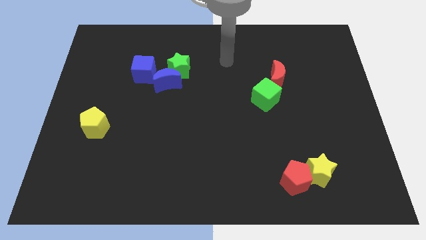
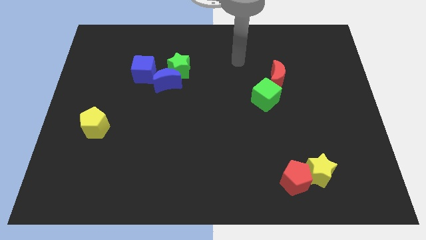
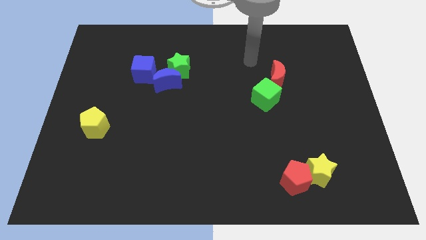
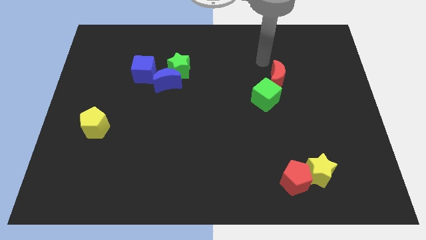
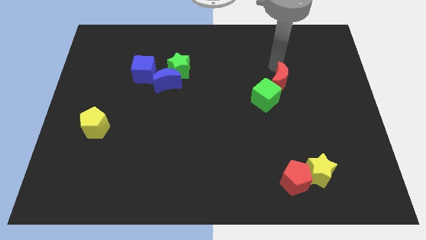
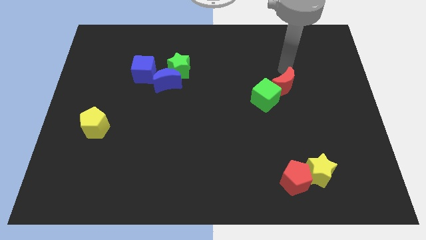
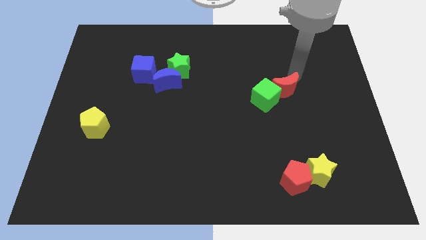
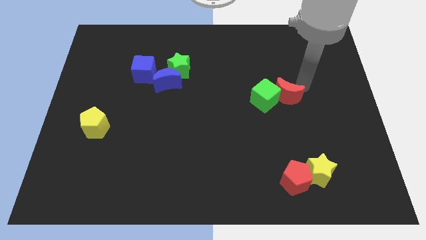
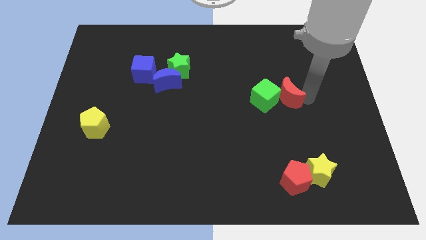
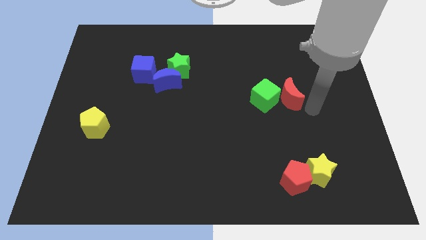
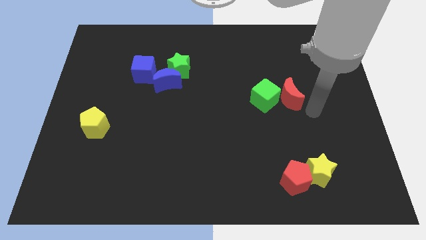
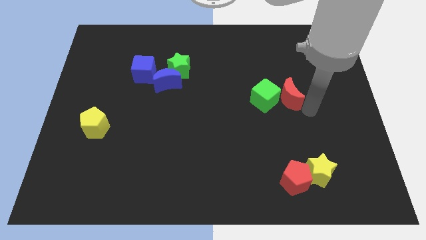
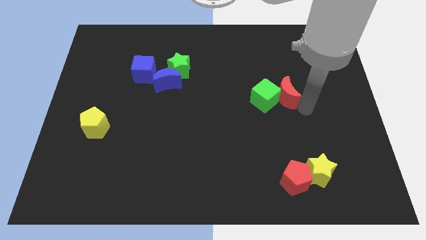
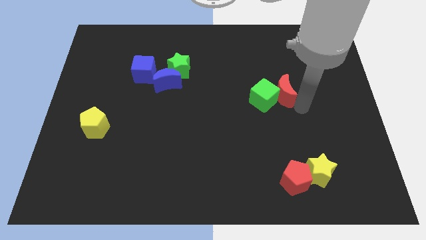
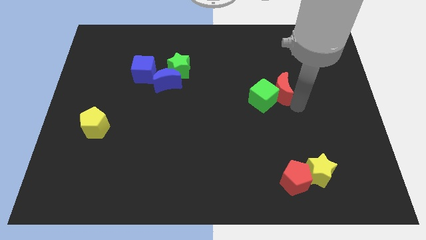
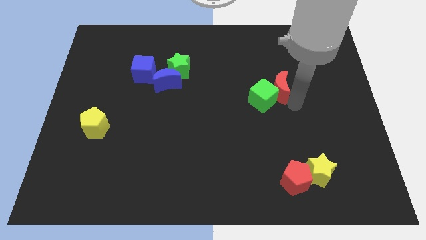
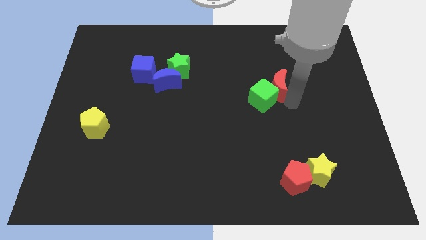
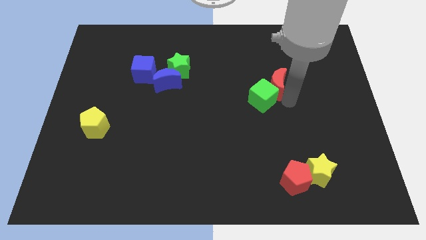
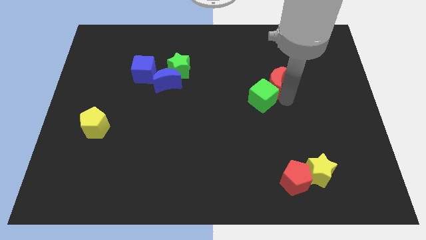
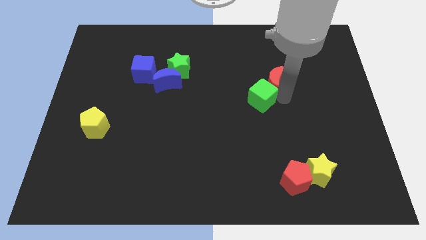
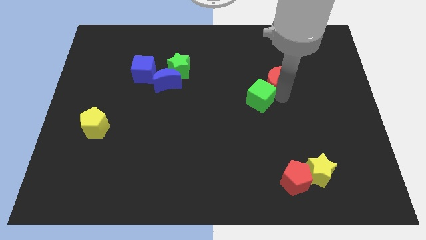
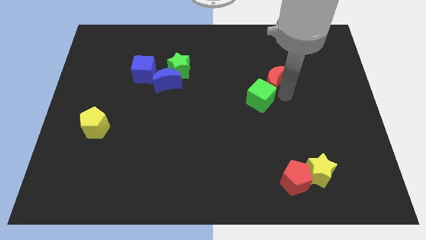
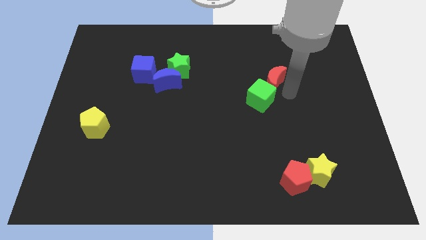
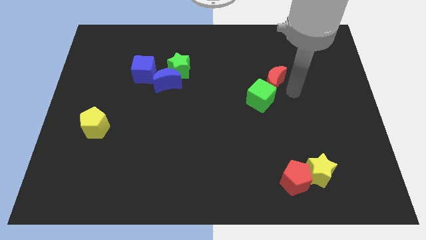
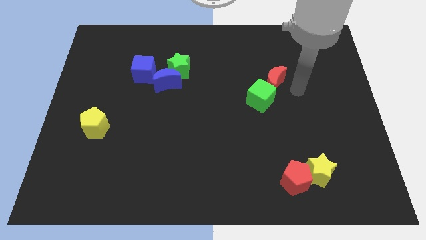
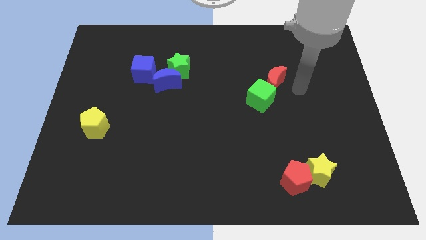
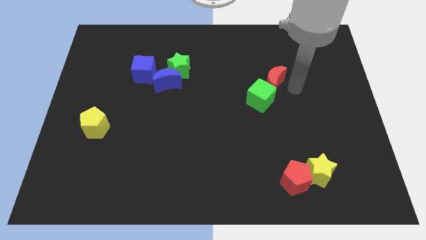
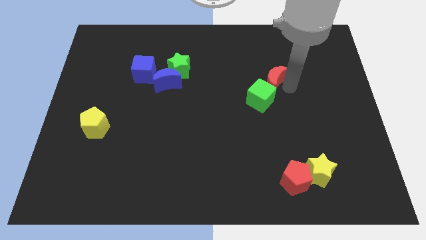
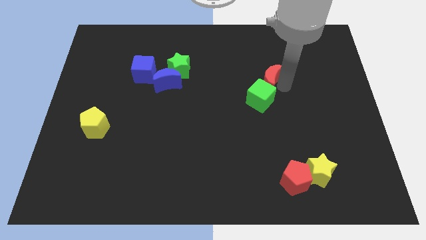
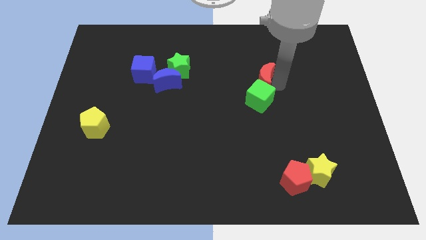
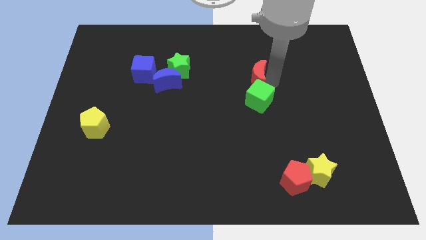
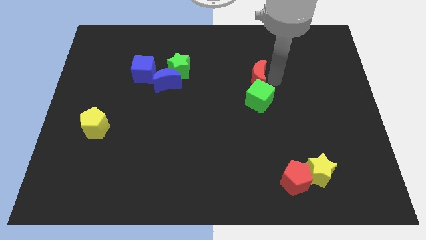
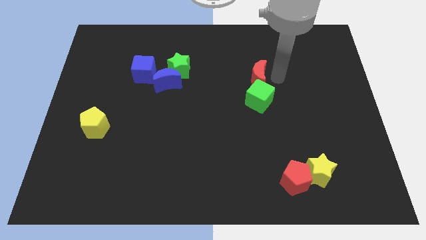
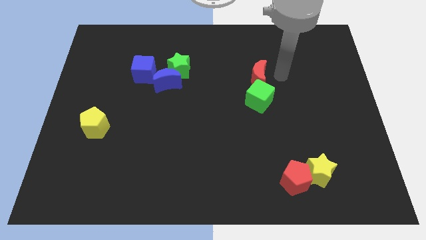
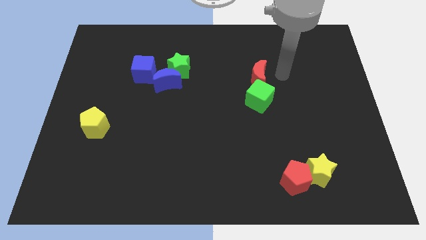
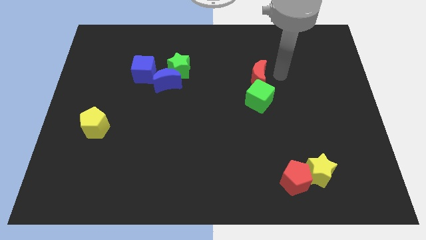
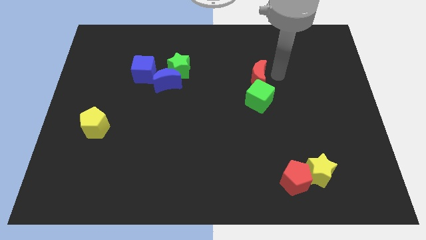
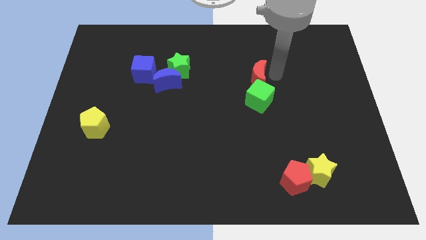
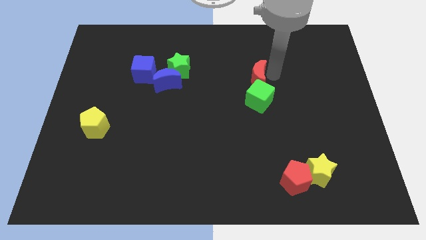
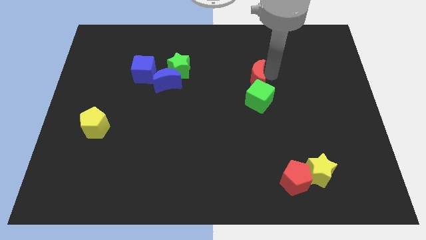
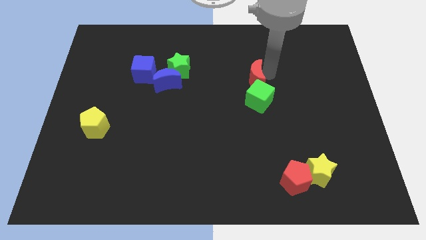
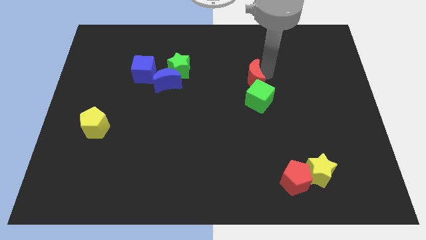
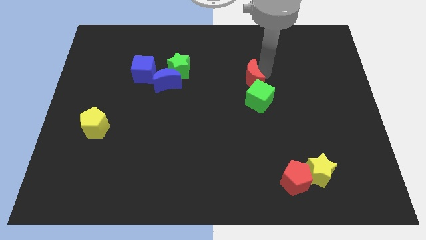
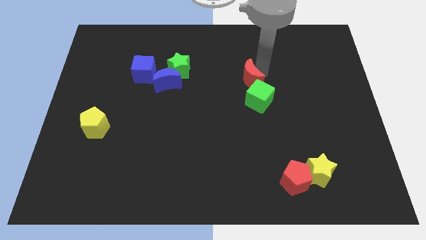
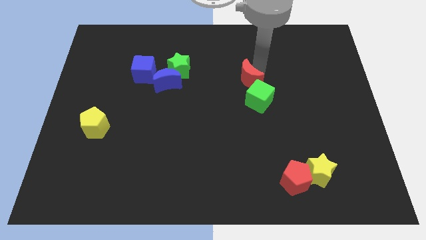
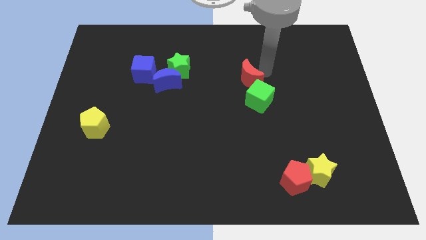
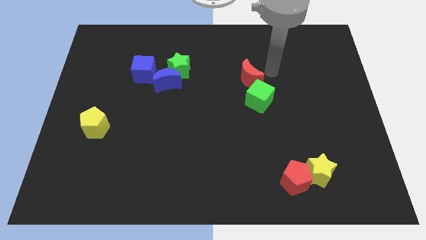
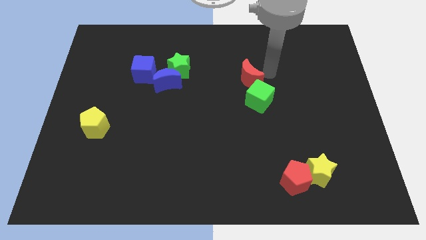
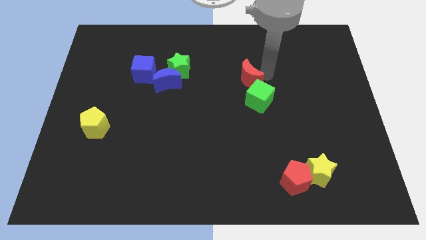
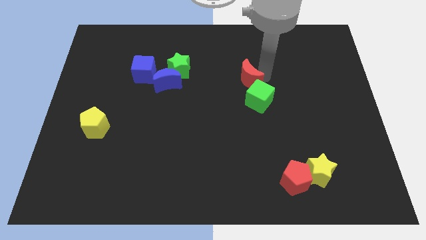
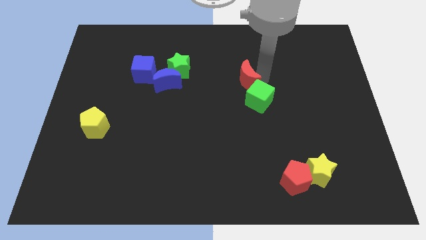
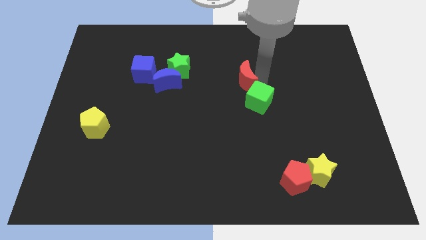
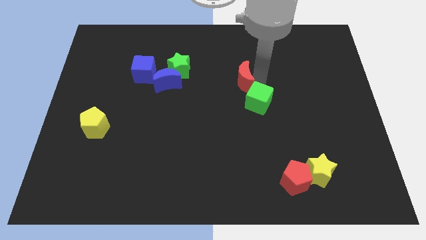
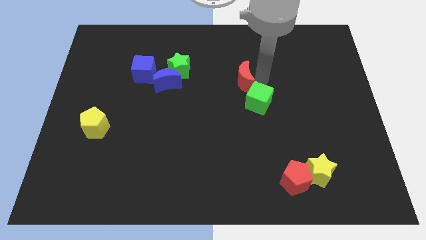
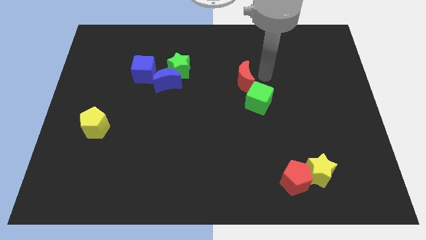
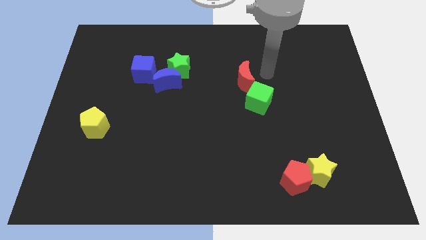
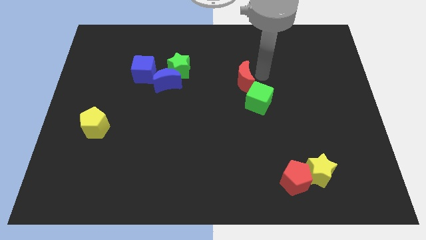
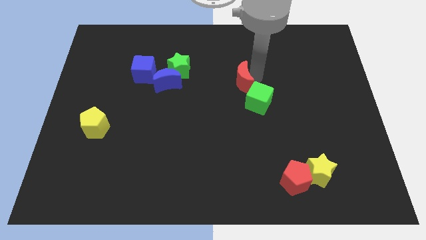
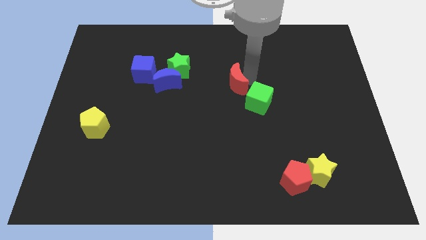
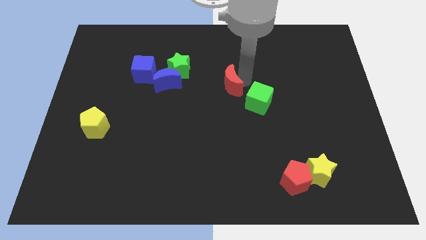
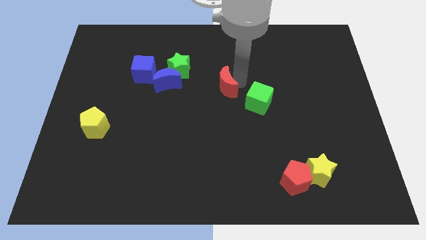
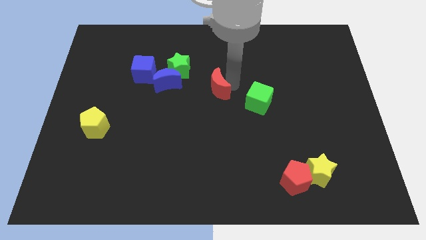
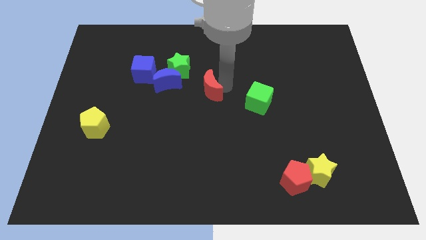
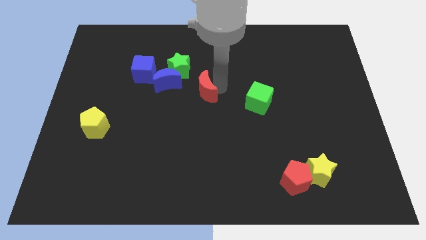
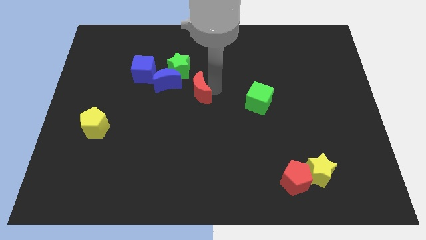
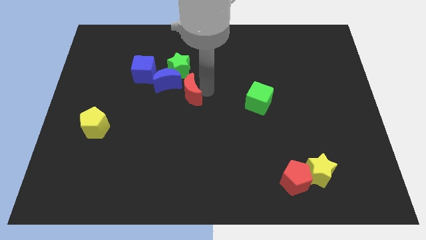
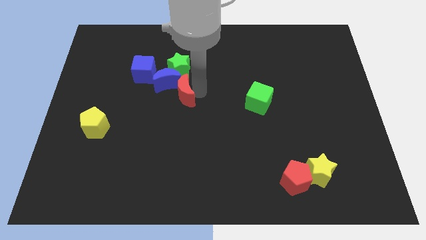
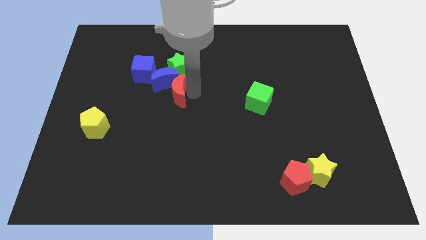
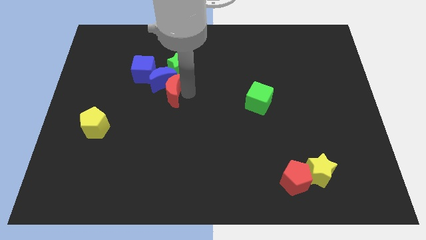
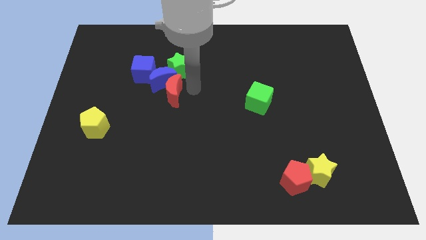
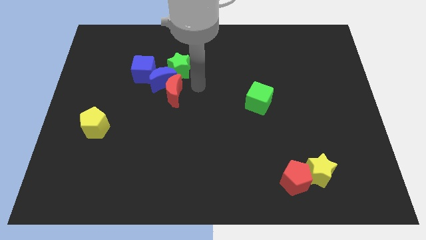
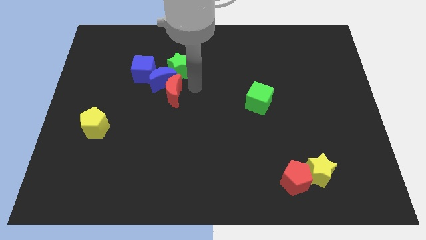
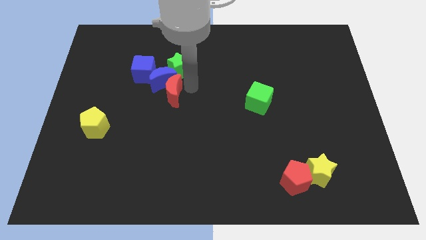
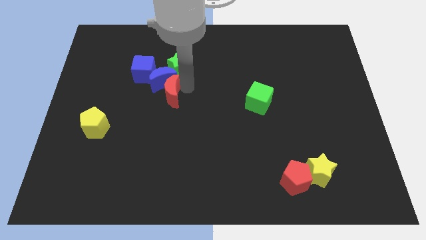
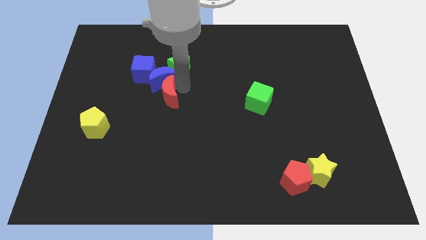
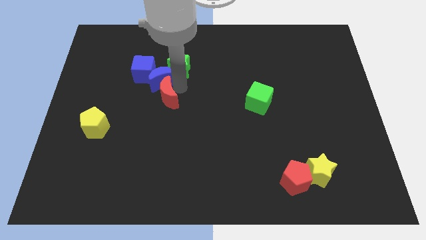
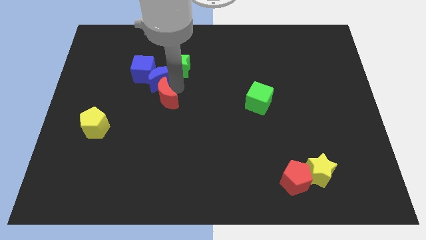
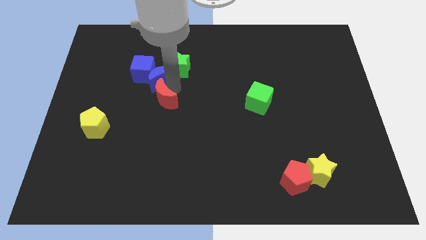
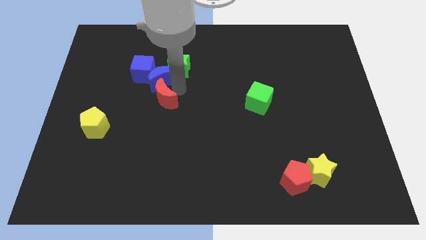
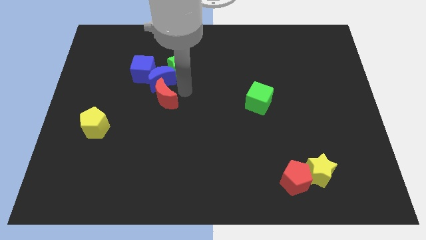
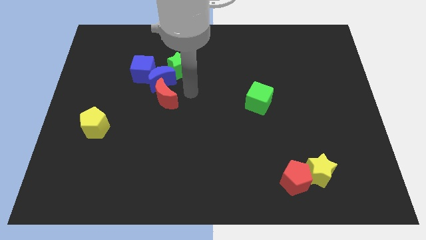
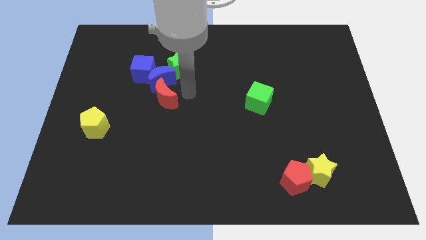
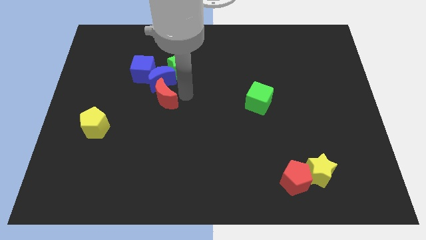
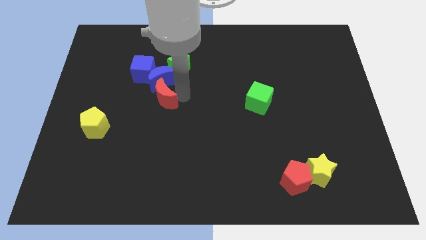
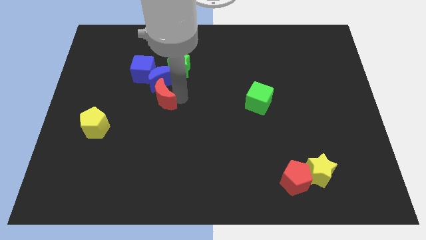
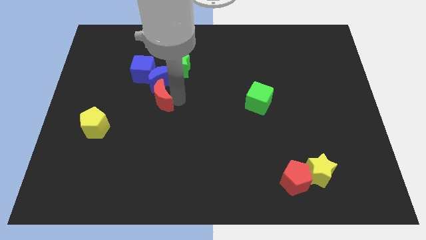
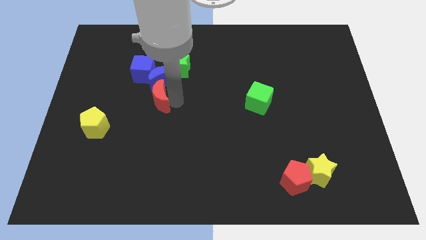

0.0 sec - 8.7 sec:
put the red moon to the bottom side of the blue cube
